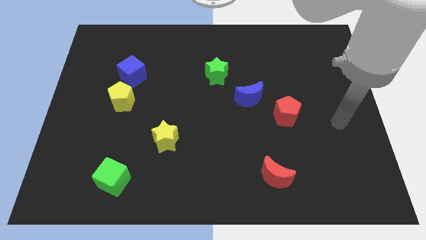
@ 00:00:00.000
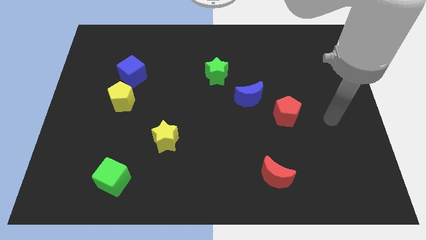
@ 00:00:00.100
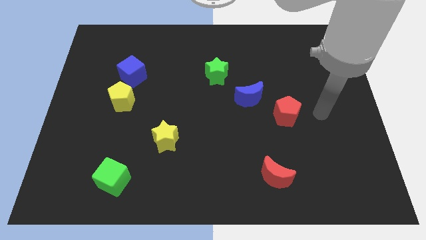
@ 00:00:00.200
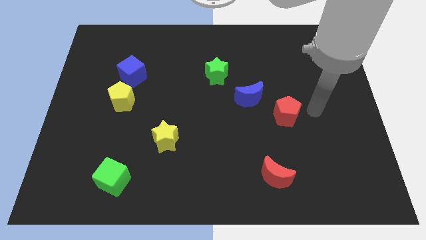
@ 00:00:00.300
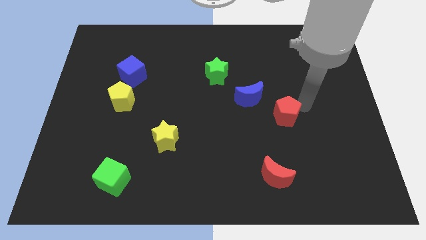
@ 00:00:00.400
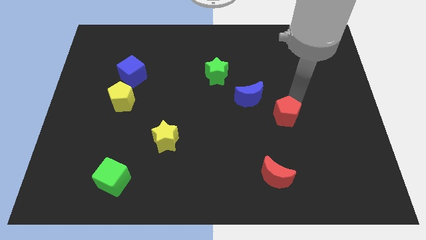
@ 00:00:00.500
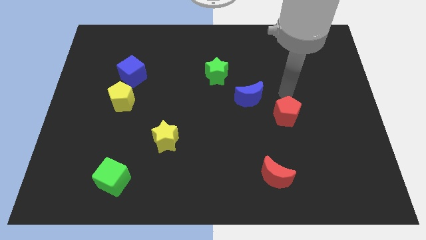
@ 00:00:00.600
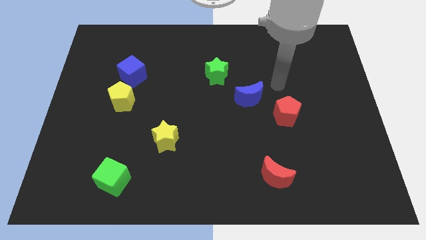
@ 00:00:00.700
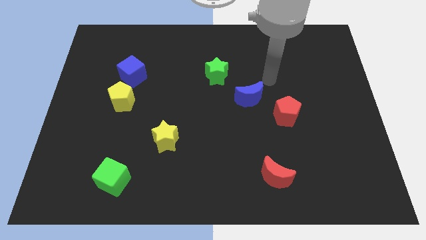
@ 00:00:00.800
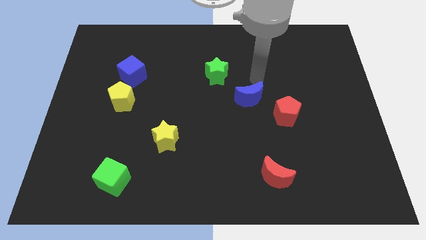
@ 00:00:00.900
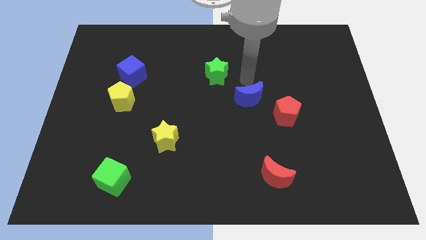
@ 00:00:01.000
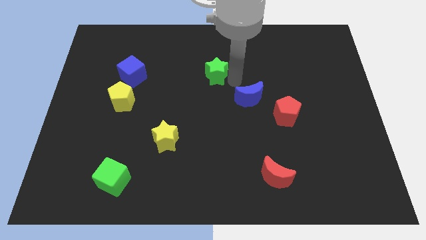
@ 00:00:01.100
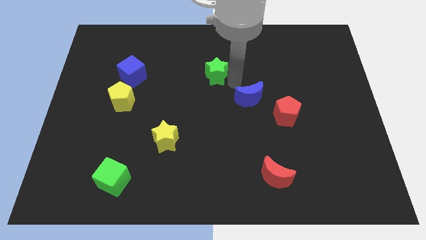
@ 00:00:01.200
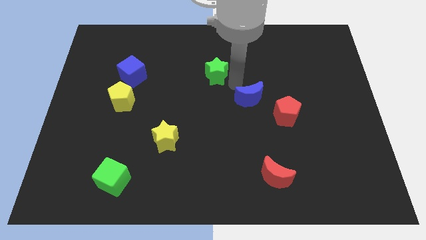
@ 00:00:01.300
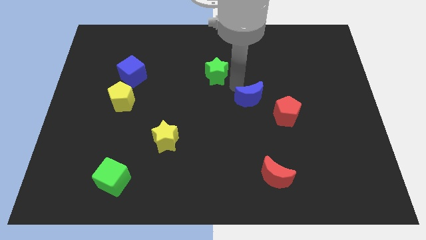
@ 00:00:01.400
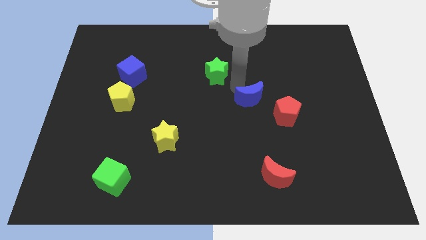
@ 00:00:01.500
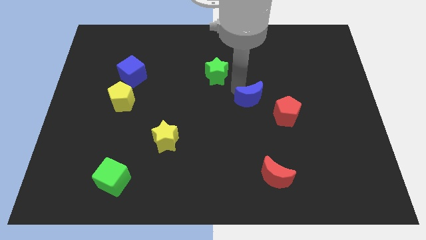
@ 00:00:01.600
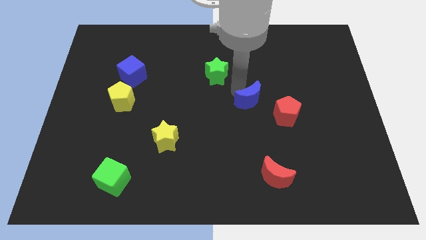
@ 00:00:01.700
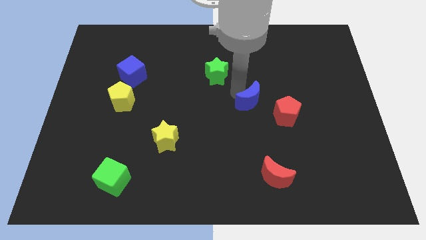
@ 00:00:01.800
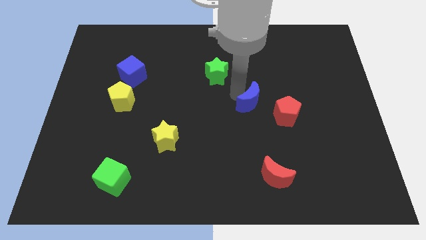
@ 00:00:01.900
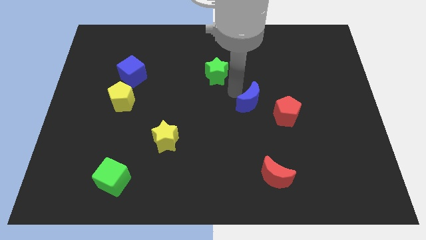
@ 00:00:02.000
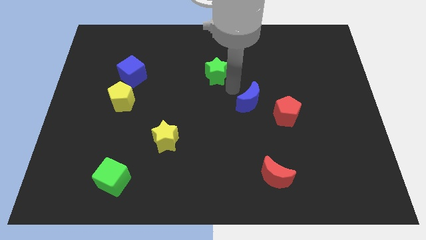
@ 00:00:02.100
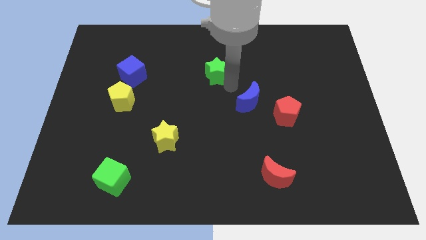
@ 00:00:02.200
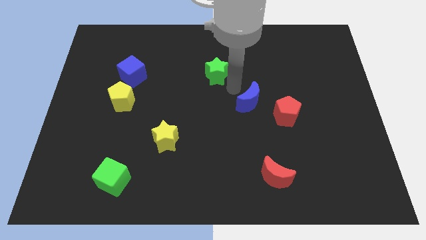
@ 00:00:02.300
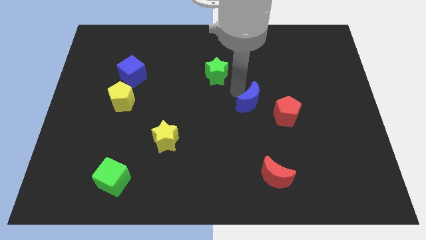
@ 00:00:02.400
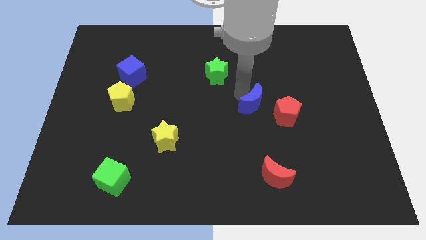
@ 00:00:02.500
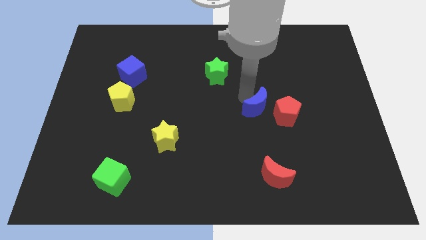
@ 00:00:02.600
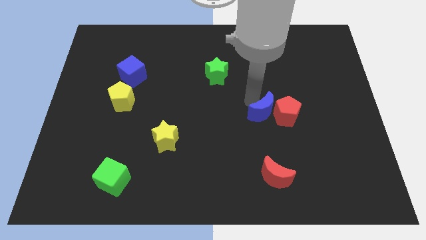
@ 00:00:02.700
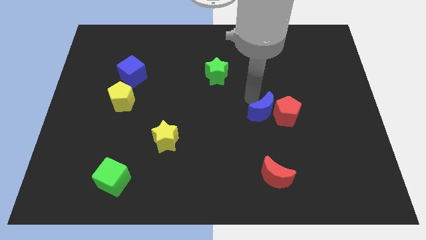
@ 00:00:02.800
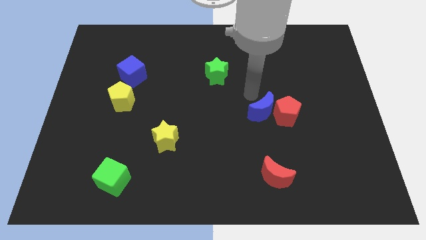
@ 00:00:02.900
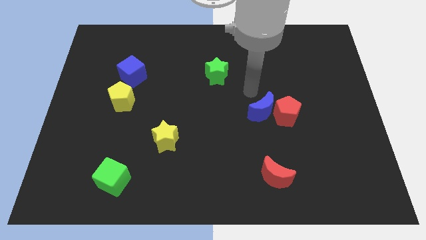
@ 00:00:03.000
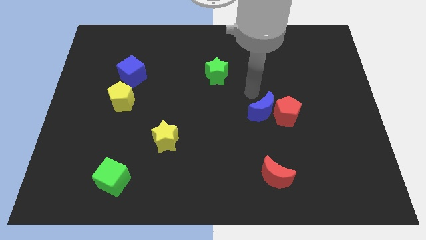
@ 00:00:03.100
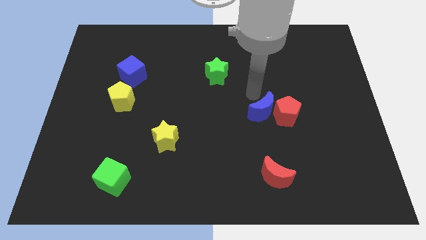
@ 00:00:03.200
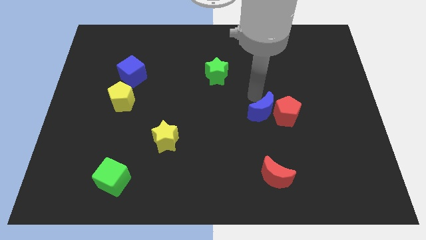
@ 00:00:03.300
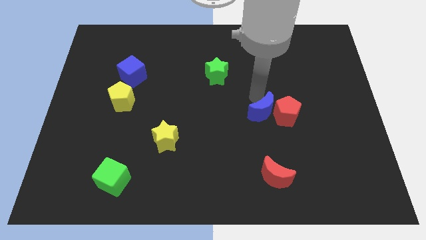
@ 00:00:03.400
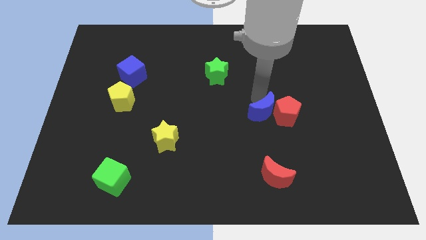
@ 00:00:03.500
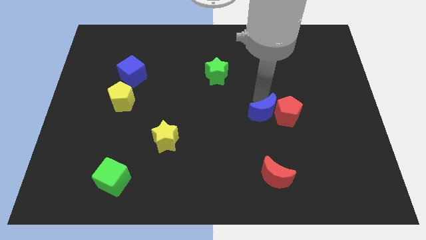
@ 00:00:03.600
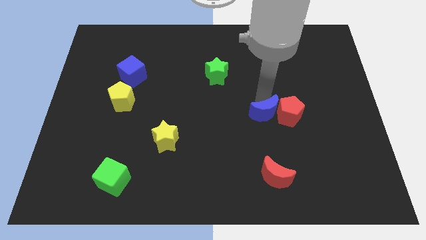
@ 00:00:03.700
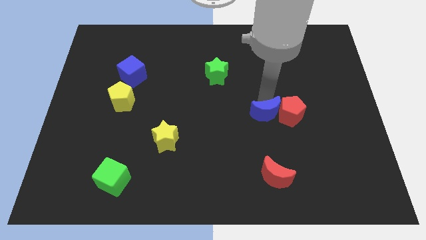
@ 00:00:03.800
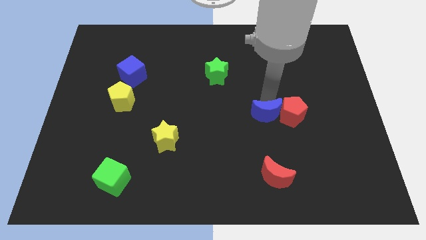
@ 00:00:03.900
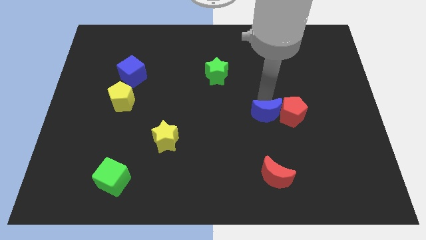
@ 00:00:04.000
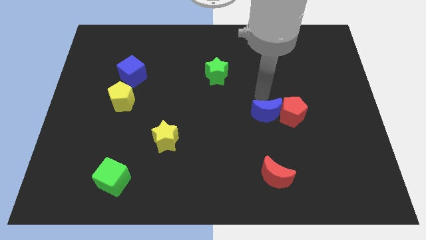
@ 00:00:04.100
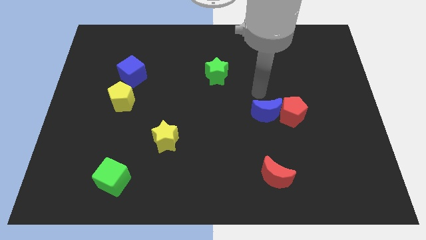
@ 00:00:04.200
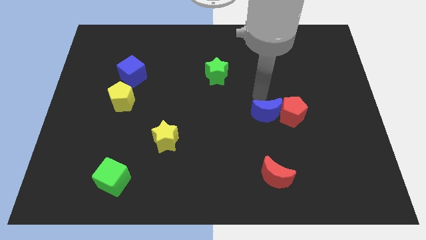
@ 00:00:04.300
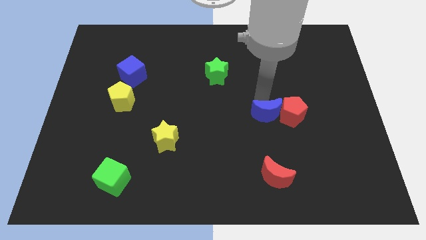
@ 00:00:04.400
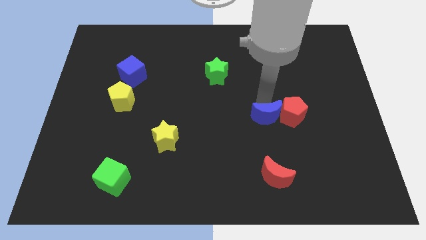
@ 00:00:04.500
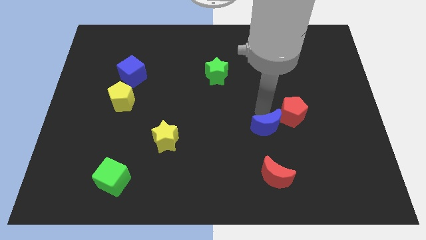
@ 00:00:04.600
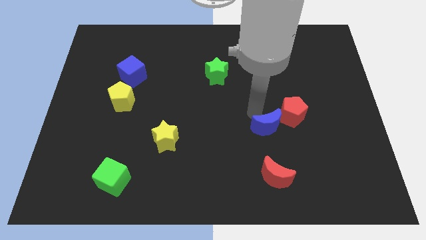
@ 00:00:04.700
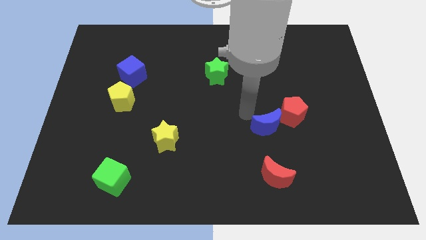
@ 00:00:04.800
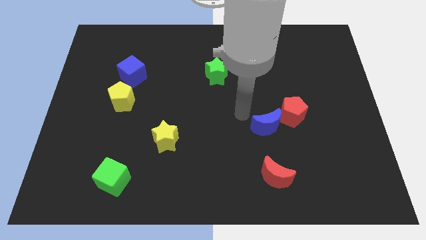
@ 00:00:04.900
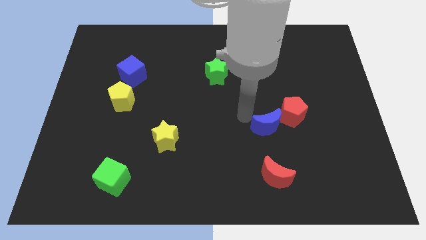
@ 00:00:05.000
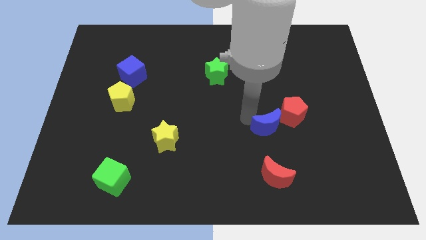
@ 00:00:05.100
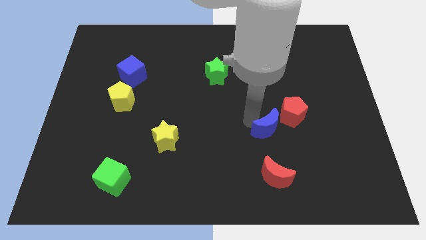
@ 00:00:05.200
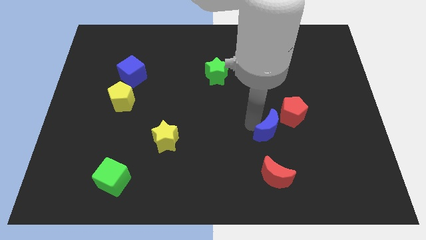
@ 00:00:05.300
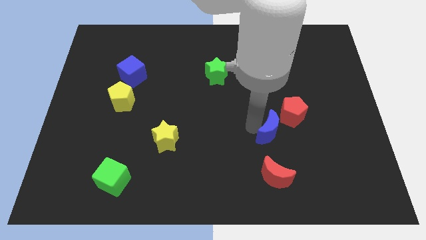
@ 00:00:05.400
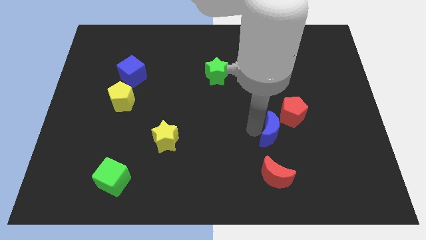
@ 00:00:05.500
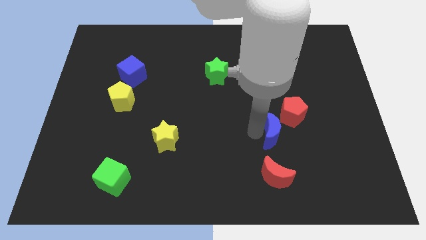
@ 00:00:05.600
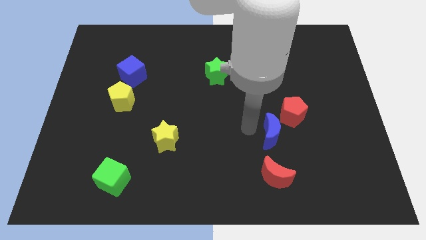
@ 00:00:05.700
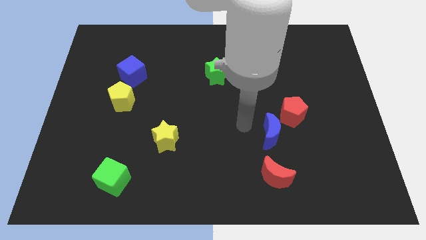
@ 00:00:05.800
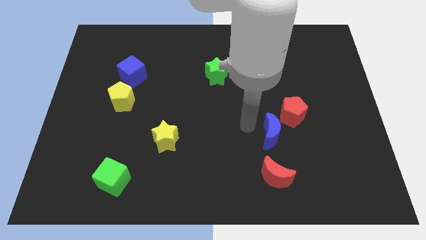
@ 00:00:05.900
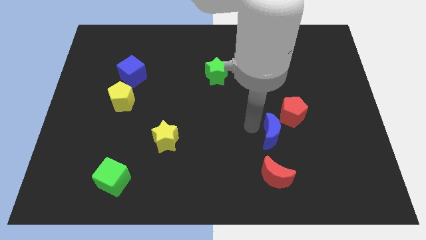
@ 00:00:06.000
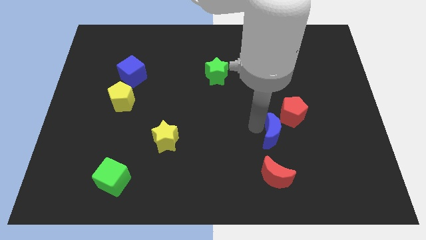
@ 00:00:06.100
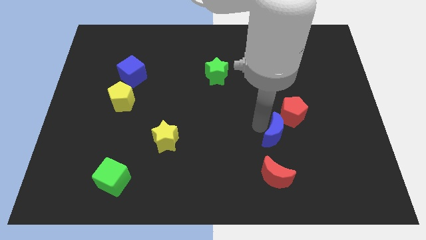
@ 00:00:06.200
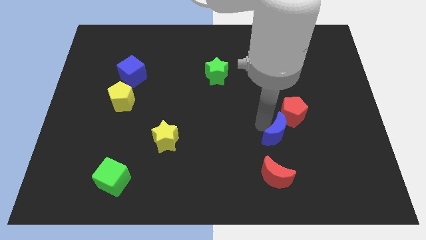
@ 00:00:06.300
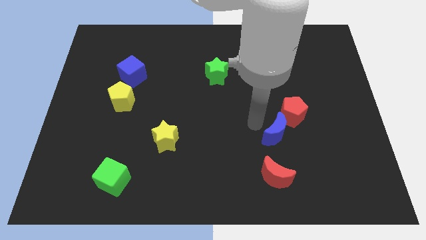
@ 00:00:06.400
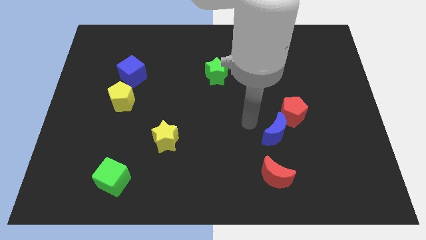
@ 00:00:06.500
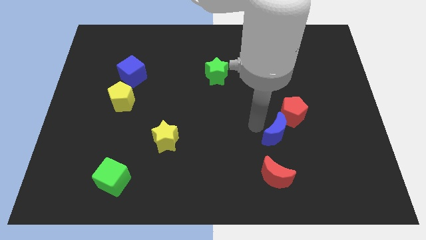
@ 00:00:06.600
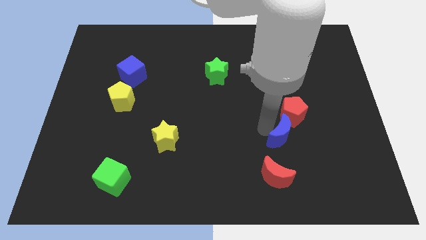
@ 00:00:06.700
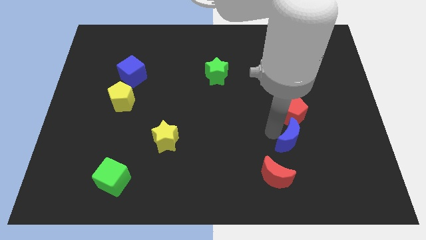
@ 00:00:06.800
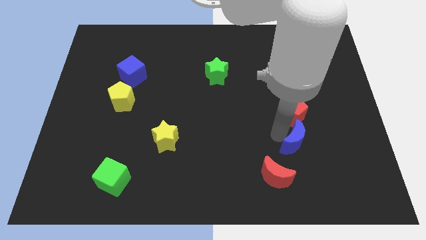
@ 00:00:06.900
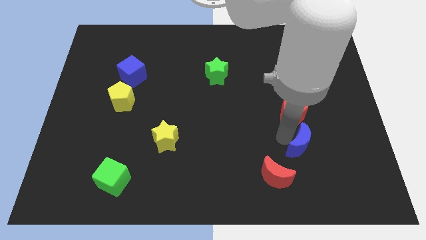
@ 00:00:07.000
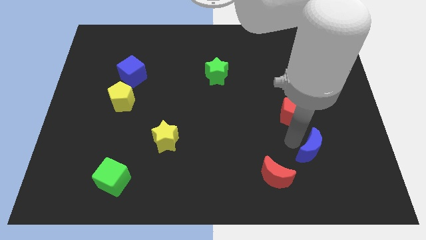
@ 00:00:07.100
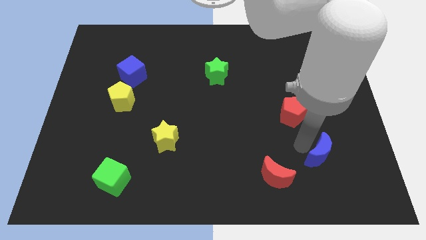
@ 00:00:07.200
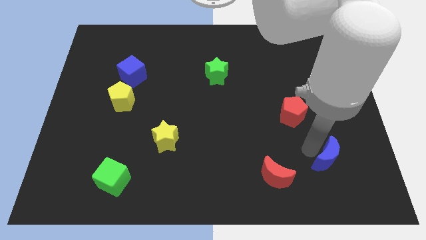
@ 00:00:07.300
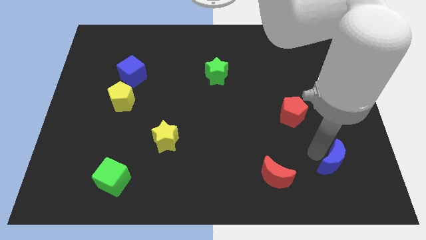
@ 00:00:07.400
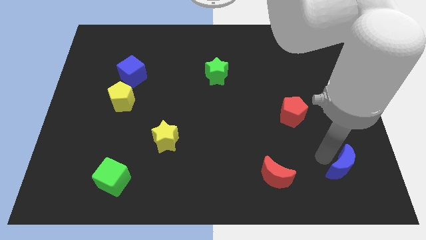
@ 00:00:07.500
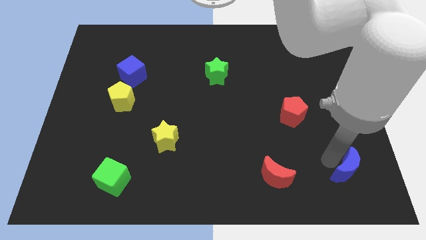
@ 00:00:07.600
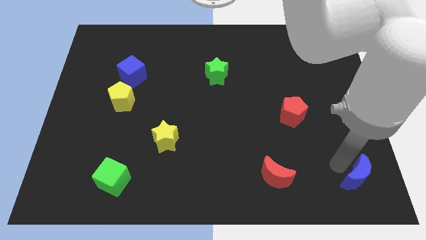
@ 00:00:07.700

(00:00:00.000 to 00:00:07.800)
push the blue moon to the bottom right

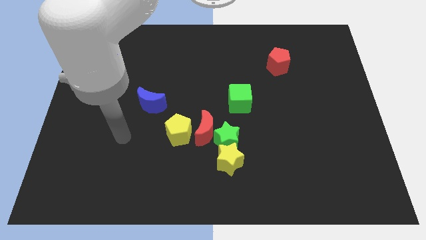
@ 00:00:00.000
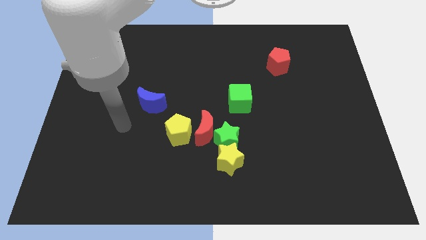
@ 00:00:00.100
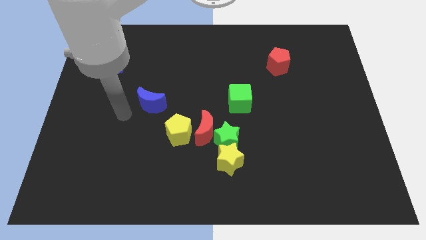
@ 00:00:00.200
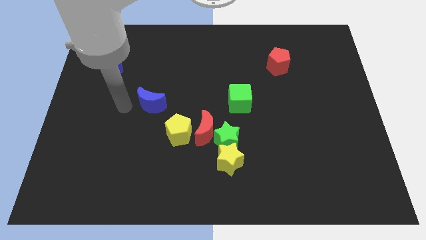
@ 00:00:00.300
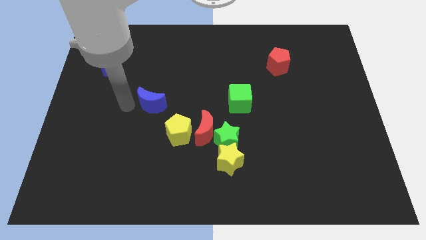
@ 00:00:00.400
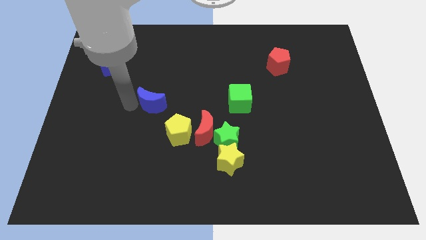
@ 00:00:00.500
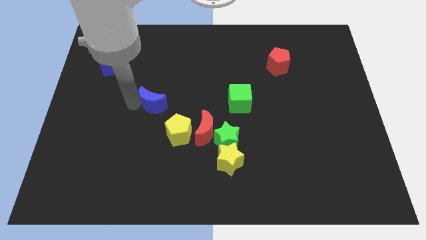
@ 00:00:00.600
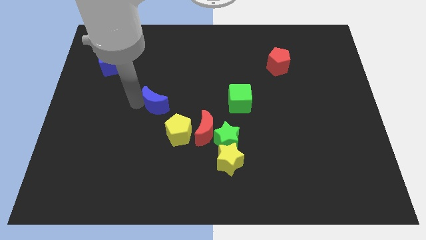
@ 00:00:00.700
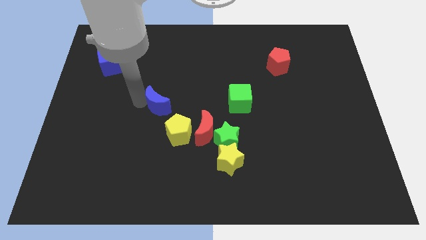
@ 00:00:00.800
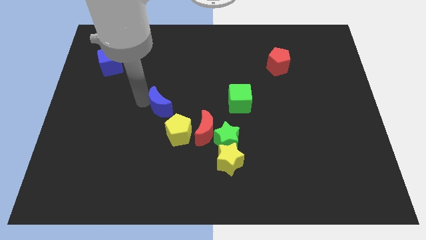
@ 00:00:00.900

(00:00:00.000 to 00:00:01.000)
put the blue moon to the center
